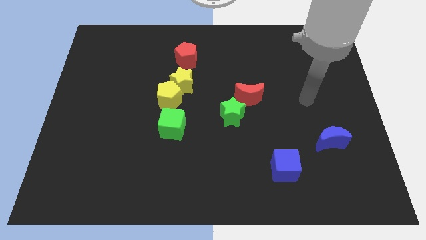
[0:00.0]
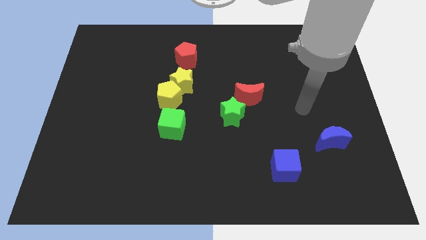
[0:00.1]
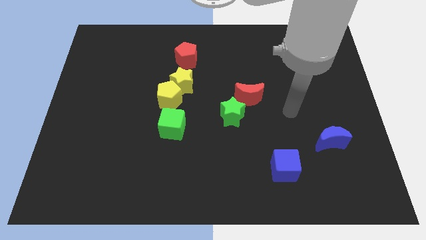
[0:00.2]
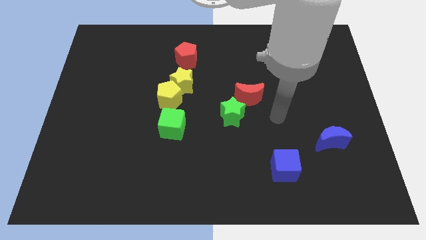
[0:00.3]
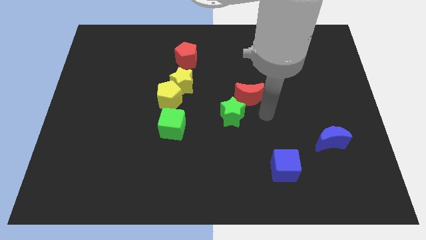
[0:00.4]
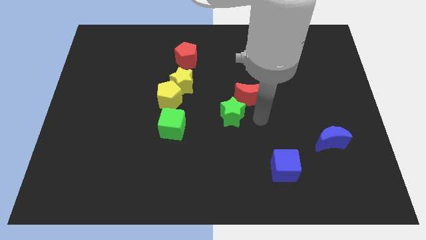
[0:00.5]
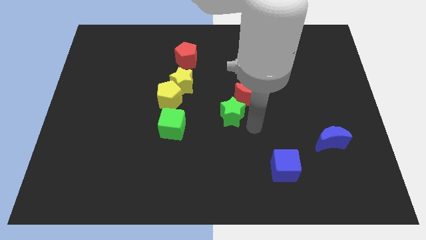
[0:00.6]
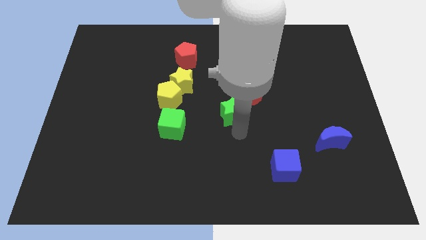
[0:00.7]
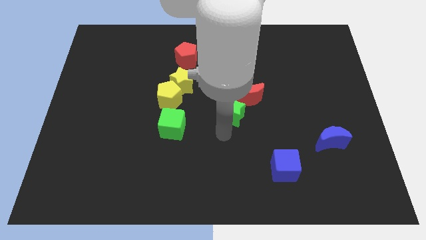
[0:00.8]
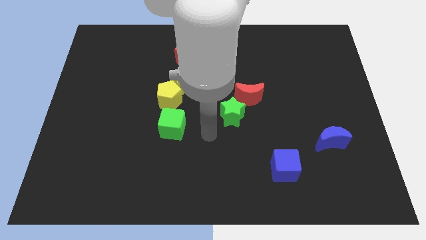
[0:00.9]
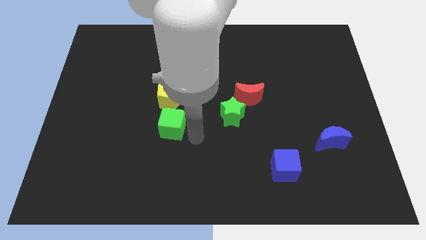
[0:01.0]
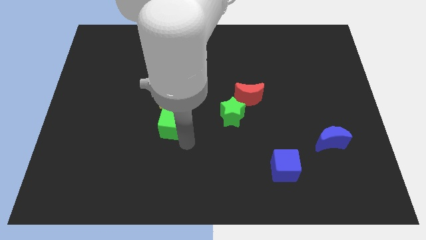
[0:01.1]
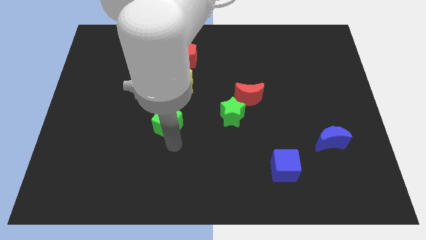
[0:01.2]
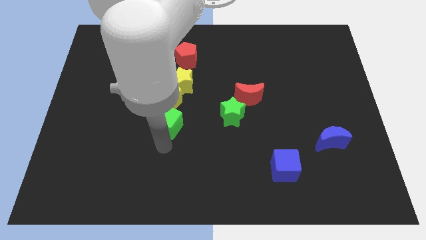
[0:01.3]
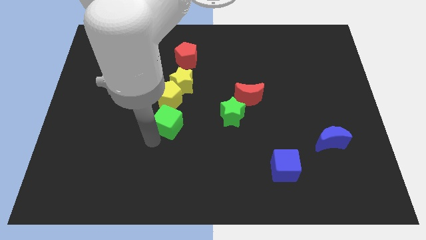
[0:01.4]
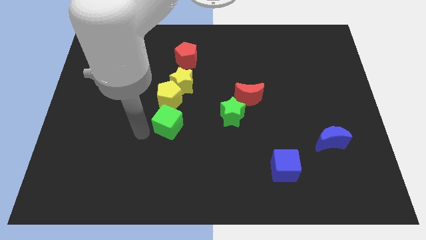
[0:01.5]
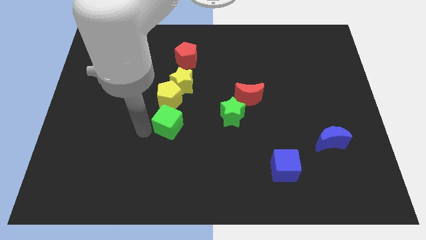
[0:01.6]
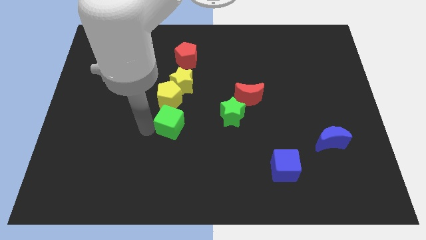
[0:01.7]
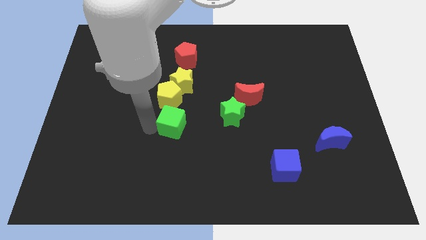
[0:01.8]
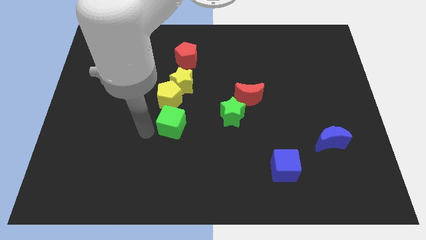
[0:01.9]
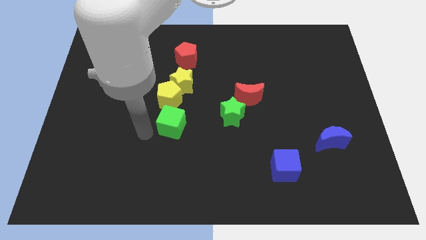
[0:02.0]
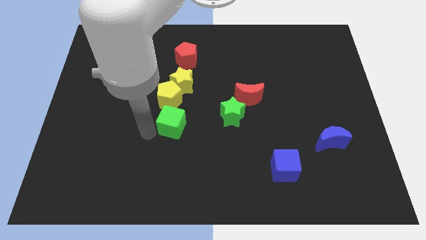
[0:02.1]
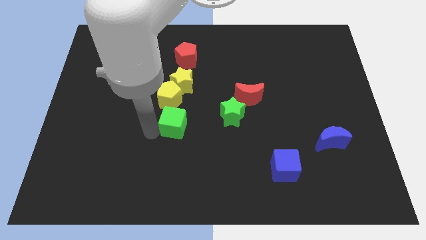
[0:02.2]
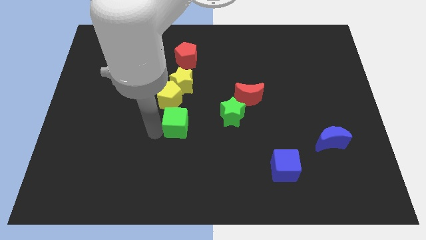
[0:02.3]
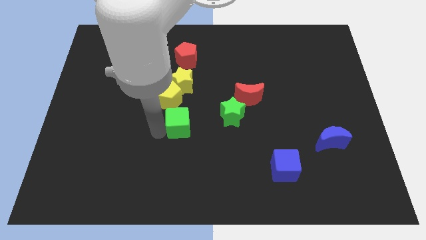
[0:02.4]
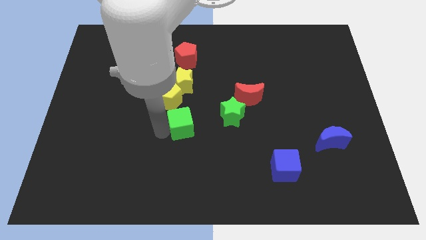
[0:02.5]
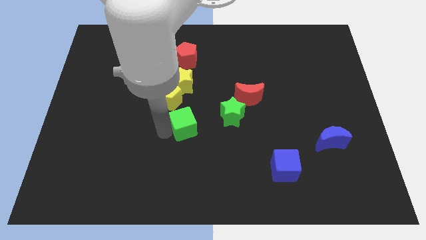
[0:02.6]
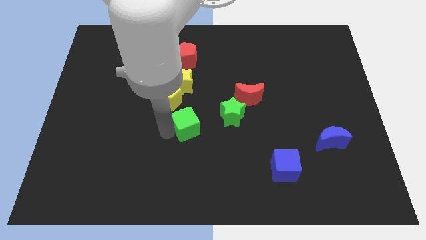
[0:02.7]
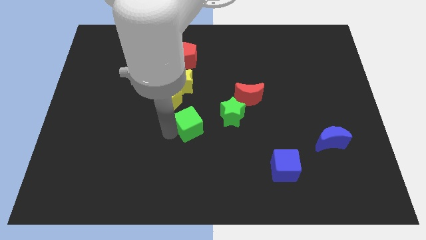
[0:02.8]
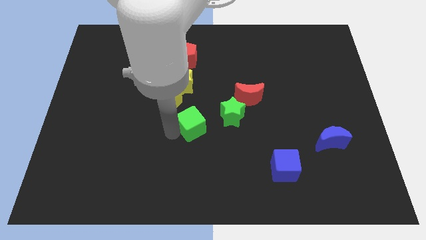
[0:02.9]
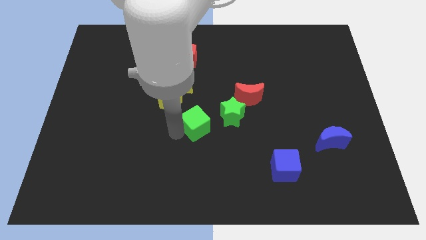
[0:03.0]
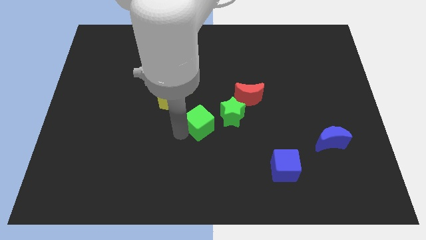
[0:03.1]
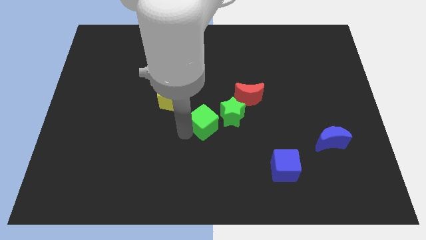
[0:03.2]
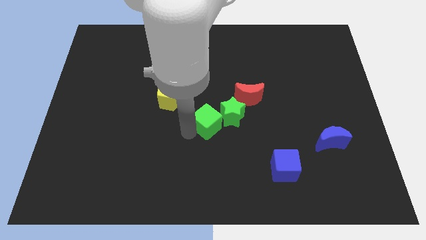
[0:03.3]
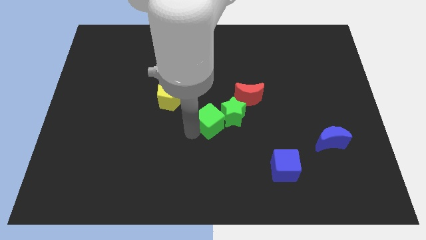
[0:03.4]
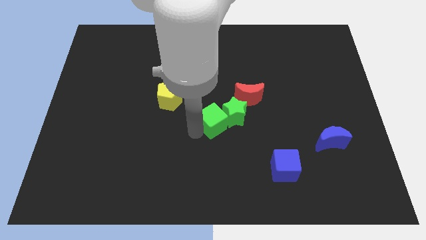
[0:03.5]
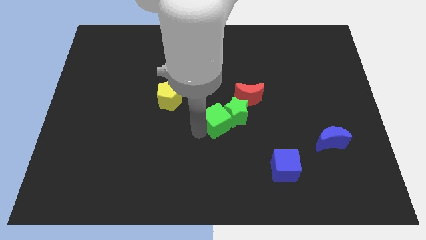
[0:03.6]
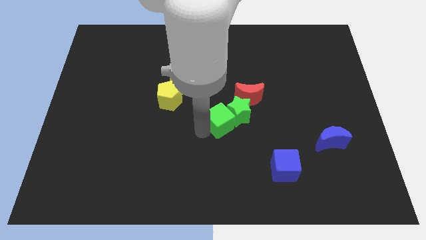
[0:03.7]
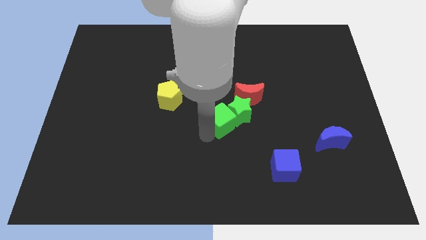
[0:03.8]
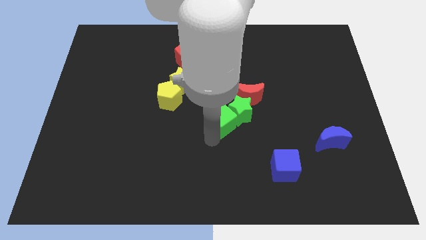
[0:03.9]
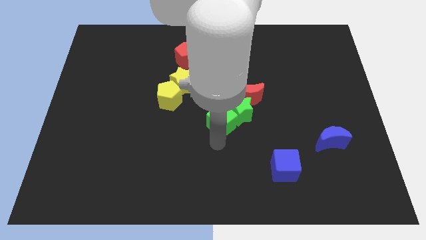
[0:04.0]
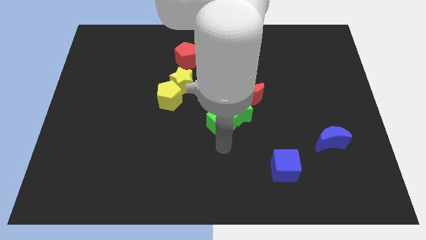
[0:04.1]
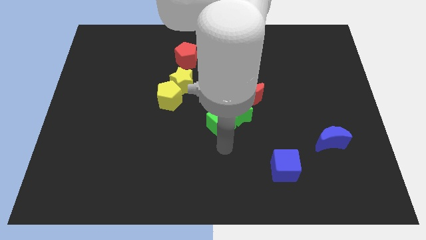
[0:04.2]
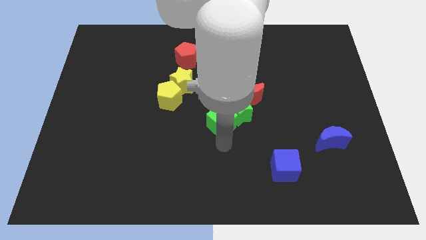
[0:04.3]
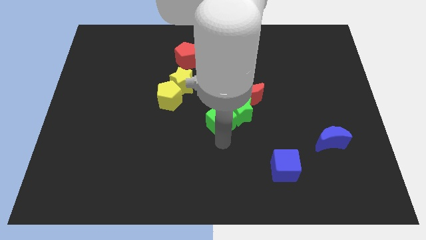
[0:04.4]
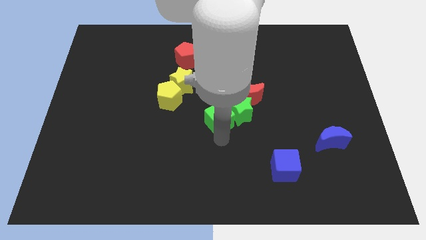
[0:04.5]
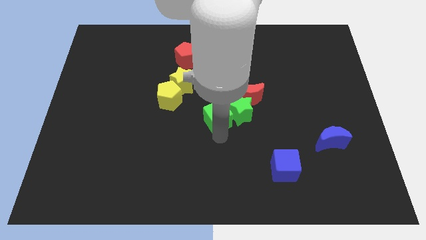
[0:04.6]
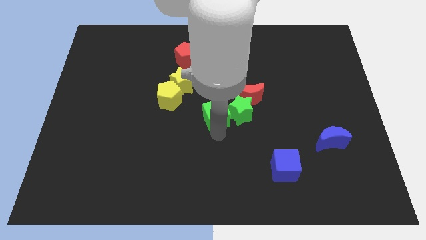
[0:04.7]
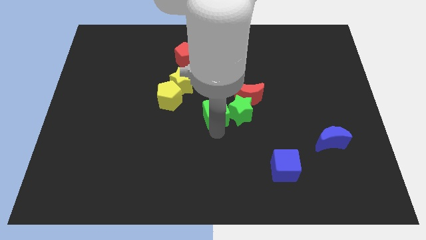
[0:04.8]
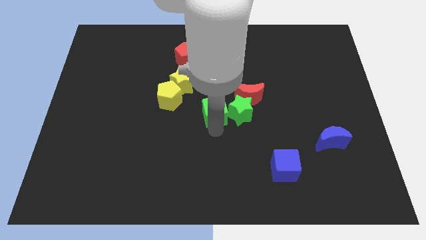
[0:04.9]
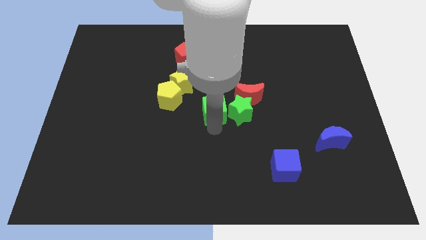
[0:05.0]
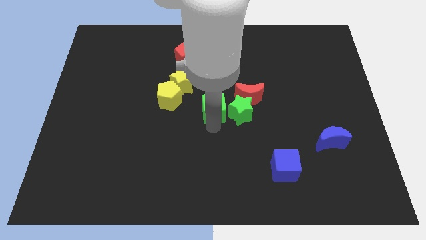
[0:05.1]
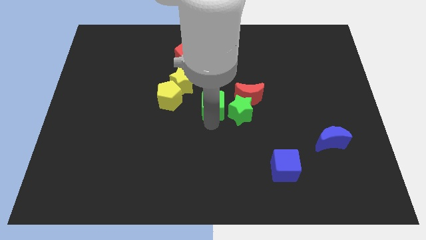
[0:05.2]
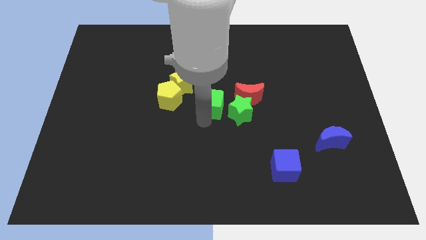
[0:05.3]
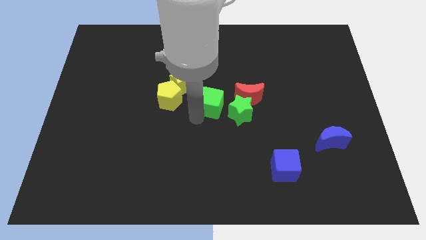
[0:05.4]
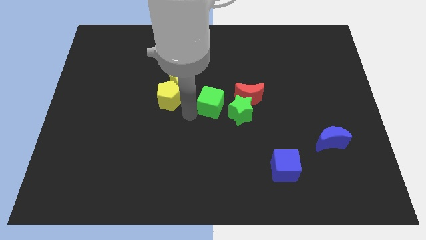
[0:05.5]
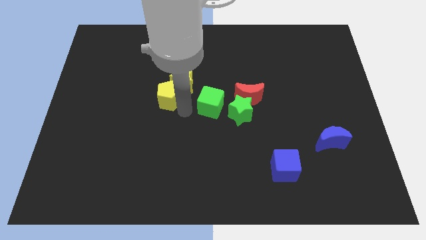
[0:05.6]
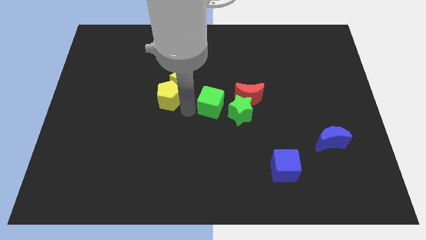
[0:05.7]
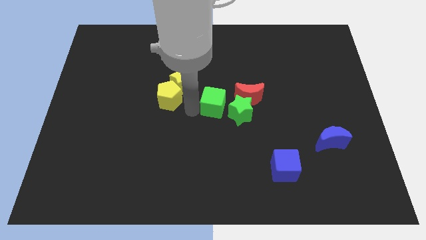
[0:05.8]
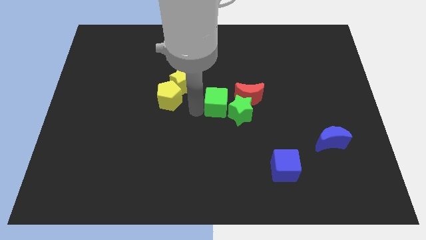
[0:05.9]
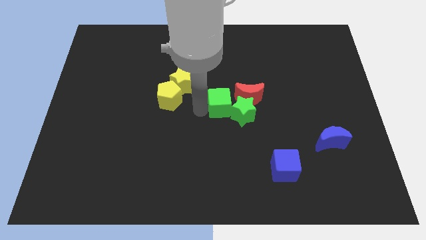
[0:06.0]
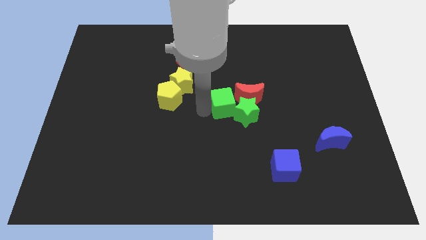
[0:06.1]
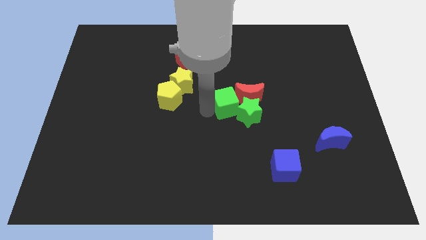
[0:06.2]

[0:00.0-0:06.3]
push the green cube next to the red moon

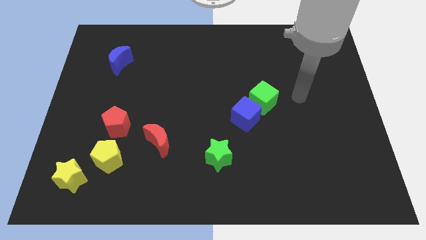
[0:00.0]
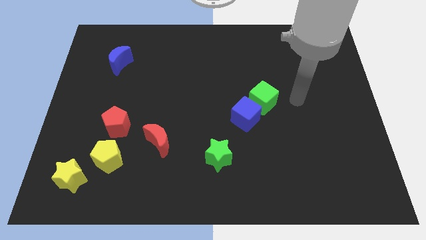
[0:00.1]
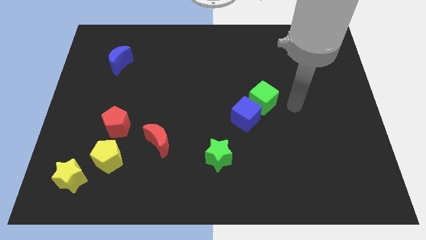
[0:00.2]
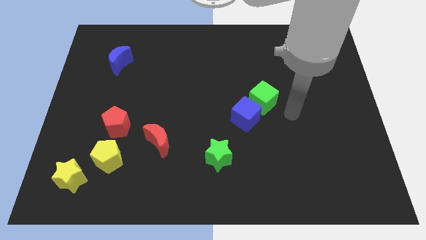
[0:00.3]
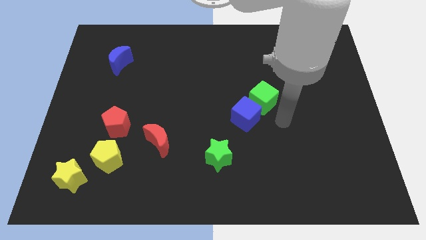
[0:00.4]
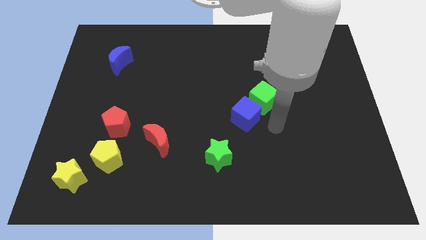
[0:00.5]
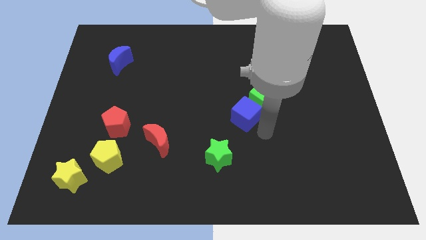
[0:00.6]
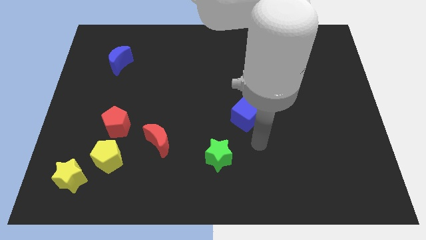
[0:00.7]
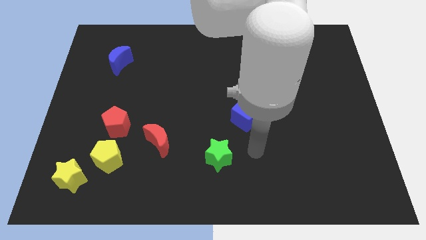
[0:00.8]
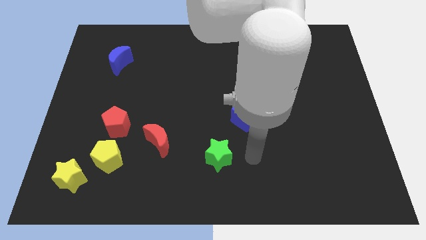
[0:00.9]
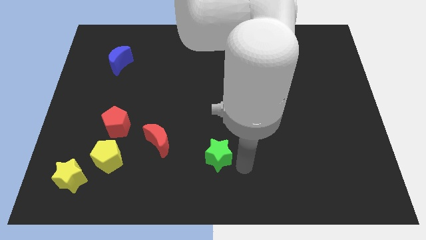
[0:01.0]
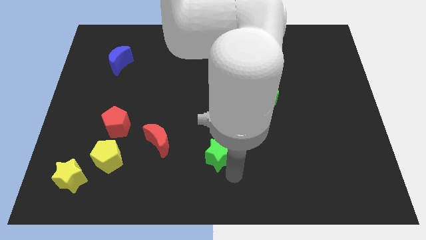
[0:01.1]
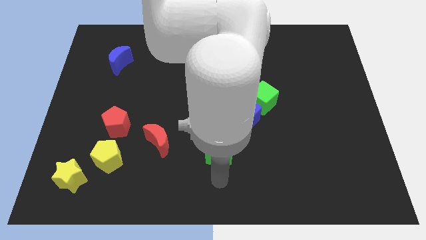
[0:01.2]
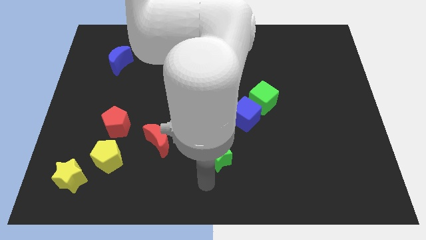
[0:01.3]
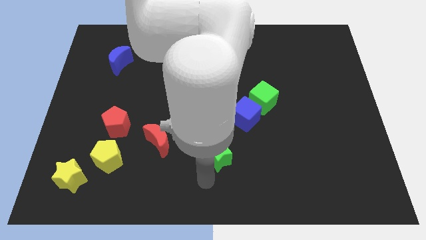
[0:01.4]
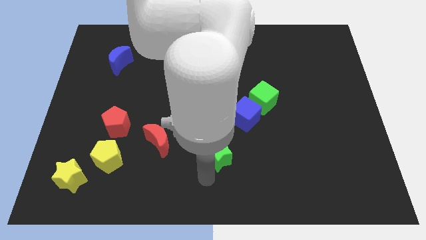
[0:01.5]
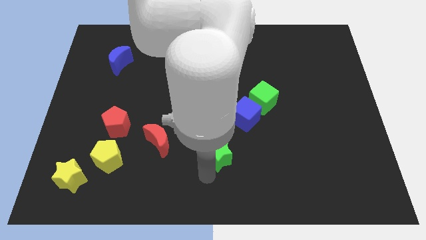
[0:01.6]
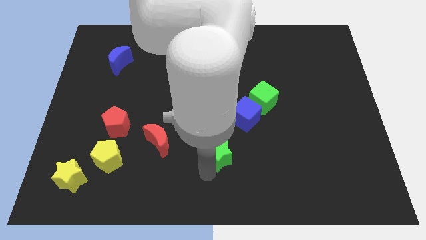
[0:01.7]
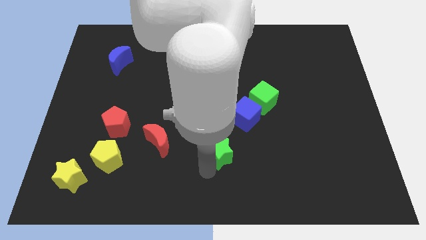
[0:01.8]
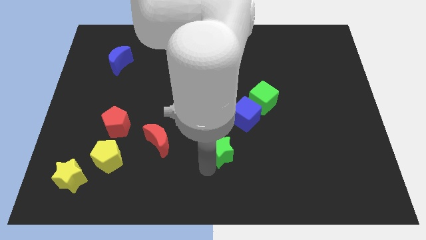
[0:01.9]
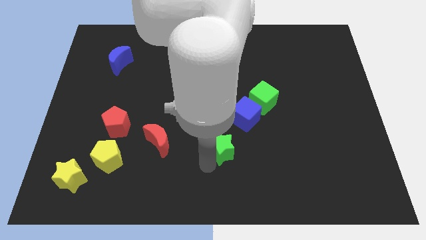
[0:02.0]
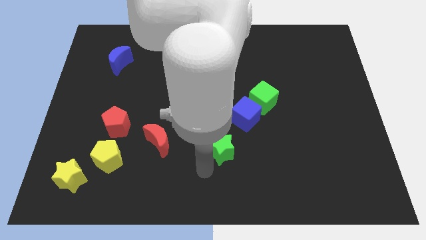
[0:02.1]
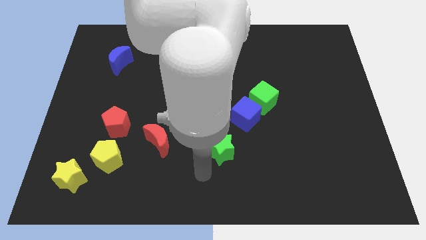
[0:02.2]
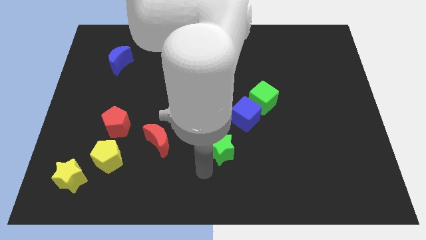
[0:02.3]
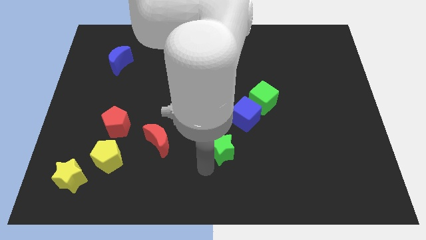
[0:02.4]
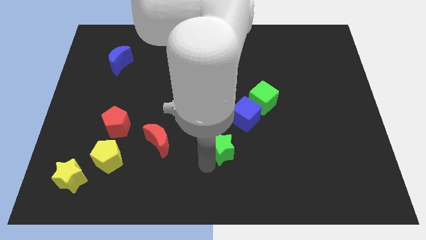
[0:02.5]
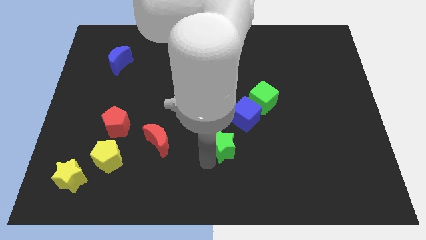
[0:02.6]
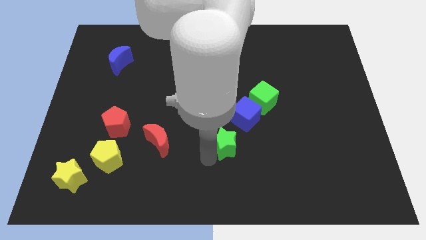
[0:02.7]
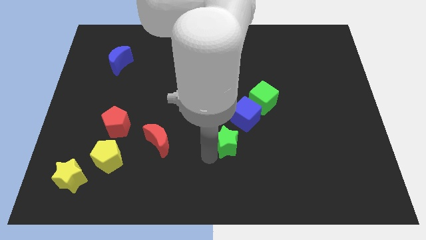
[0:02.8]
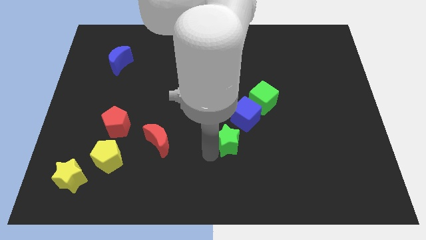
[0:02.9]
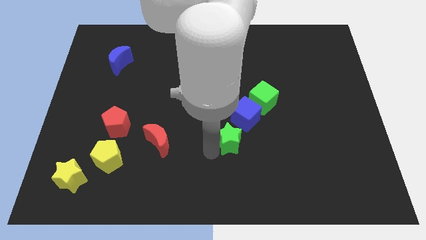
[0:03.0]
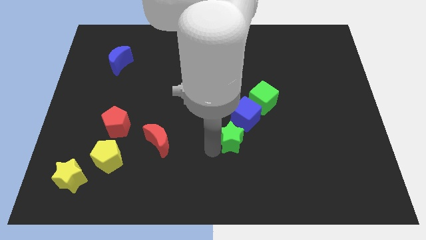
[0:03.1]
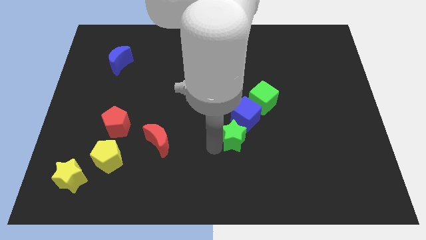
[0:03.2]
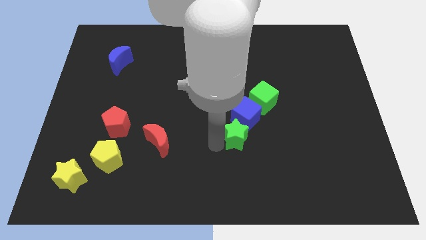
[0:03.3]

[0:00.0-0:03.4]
slide the green star next to the blue cube
